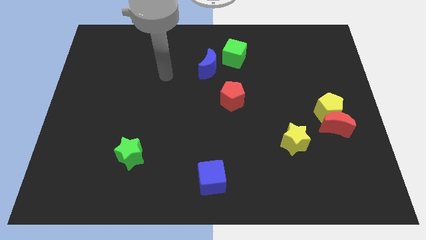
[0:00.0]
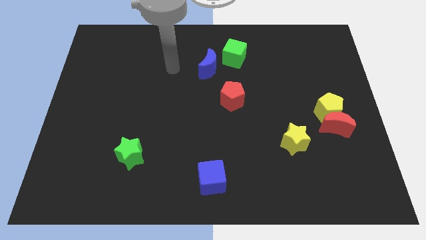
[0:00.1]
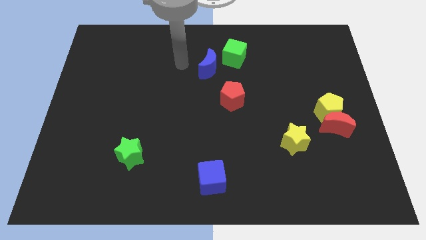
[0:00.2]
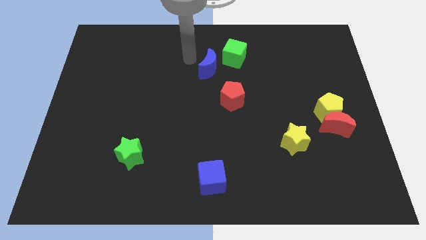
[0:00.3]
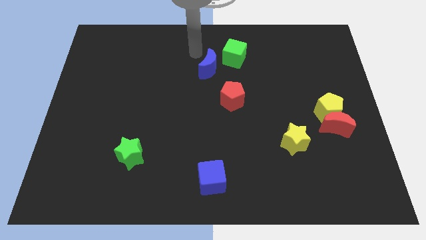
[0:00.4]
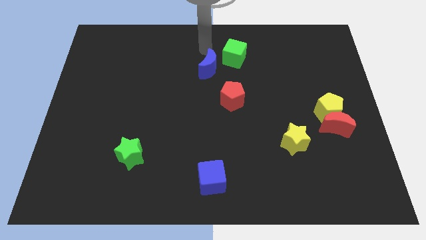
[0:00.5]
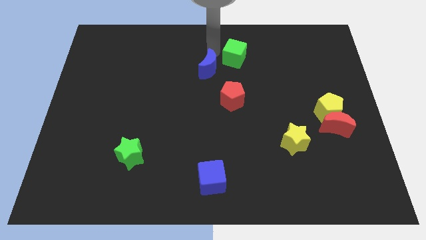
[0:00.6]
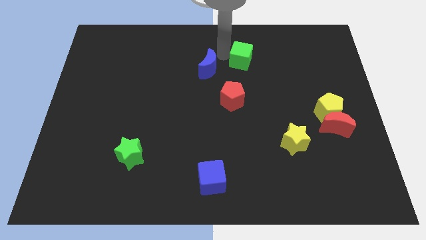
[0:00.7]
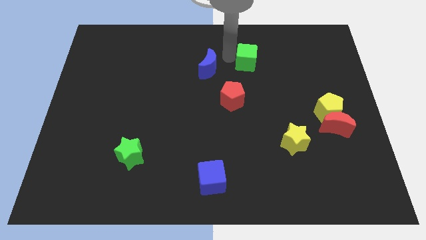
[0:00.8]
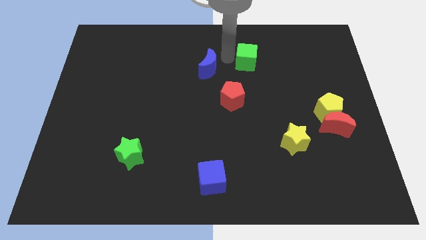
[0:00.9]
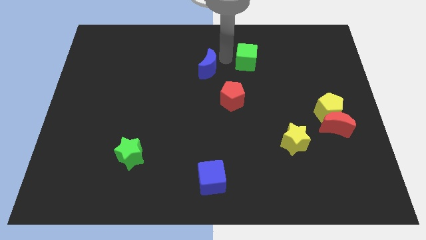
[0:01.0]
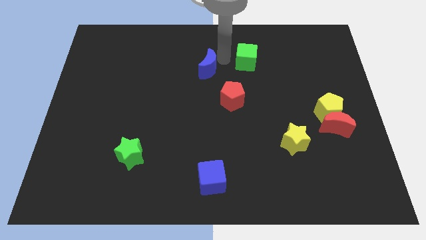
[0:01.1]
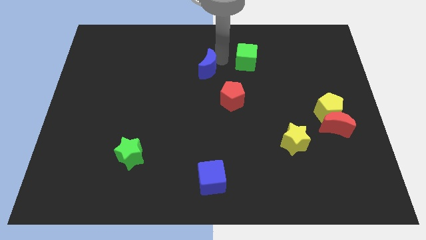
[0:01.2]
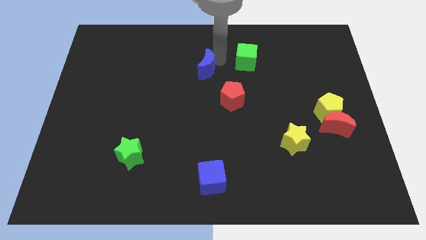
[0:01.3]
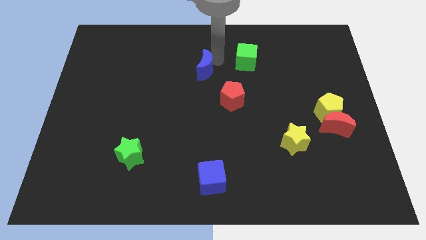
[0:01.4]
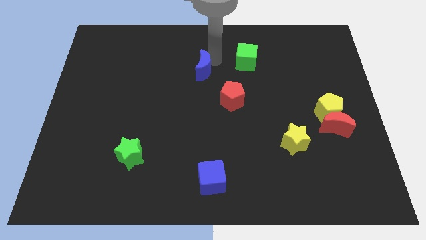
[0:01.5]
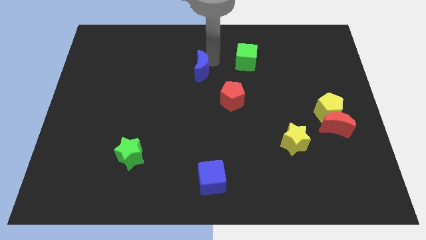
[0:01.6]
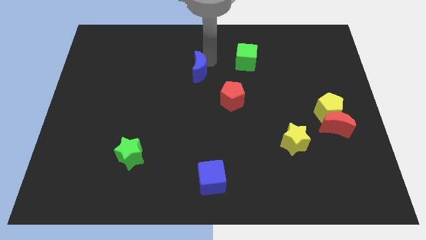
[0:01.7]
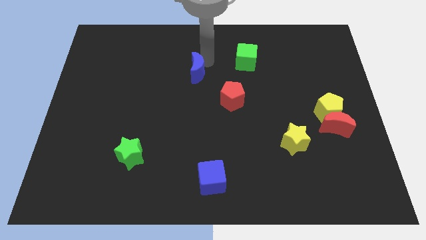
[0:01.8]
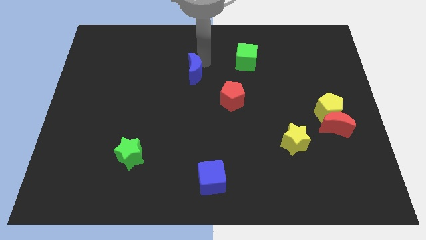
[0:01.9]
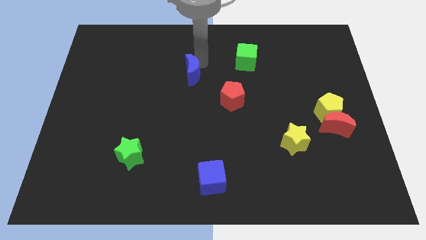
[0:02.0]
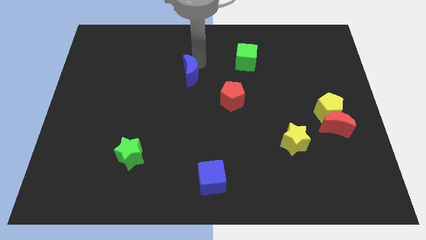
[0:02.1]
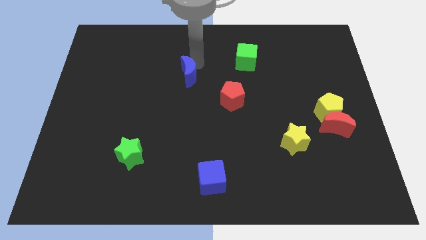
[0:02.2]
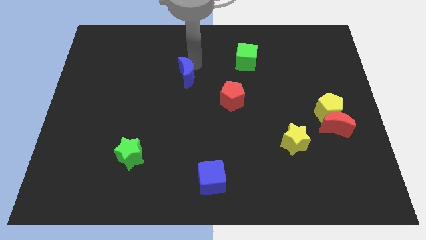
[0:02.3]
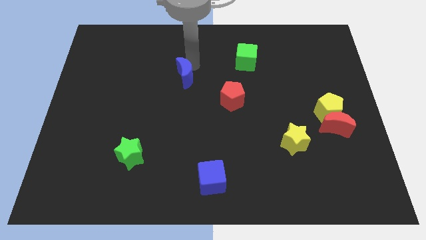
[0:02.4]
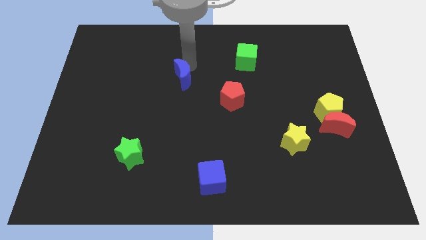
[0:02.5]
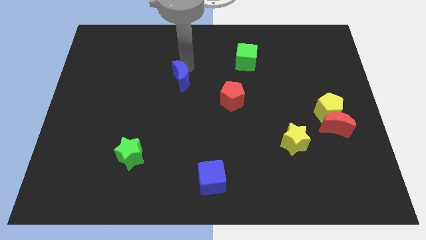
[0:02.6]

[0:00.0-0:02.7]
slightly slide the blue moon downwards and then left

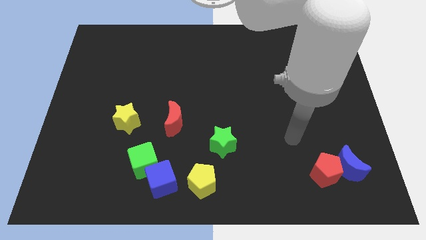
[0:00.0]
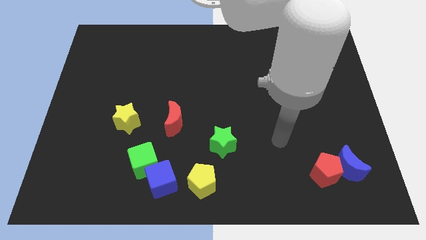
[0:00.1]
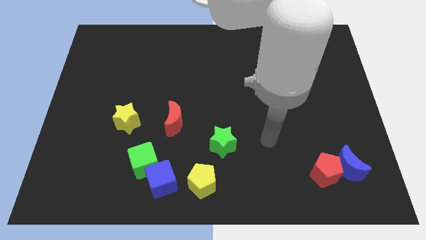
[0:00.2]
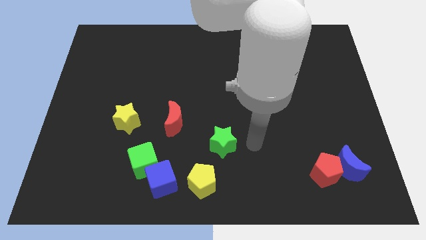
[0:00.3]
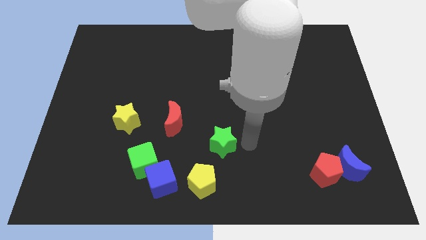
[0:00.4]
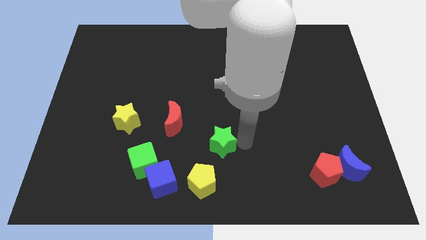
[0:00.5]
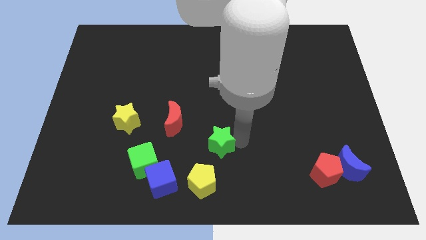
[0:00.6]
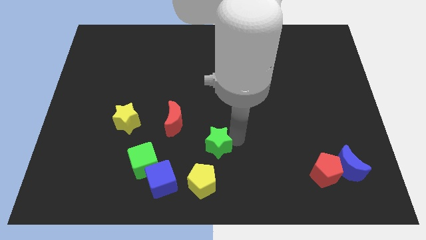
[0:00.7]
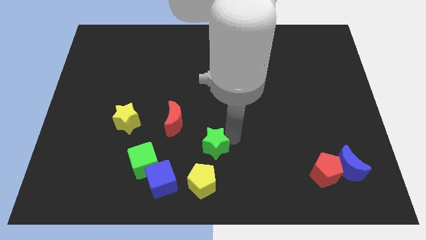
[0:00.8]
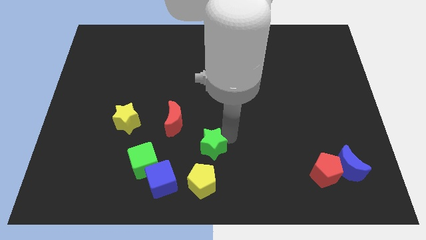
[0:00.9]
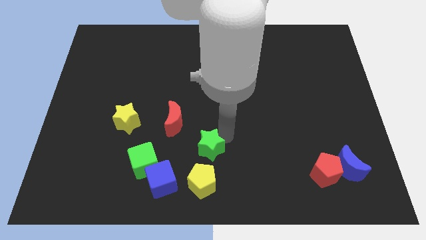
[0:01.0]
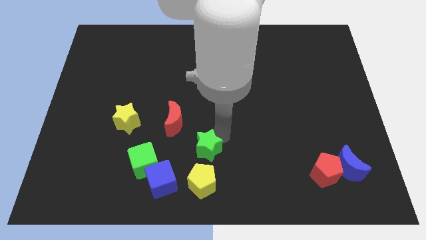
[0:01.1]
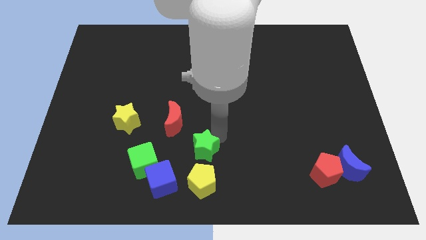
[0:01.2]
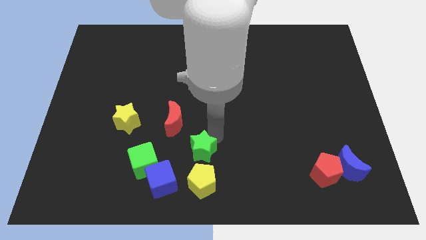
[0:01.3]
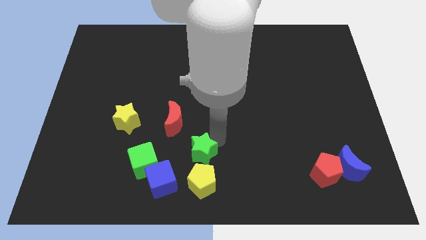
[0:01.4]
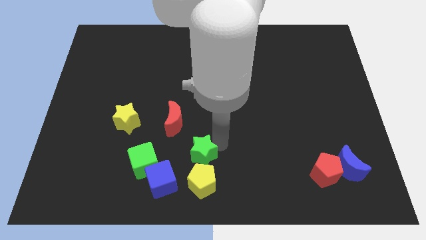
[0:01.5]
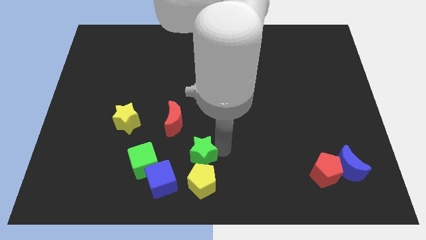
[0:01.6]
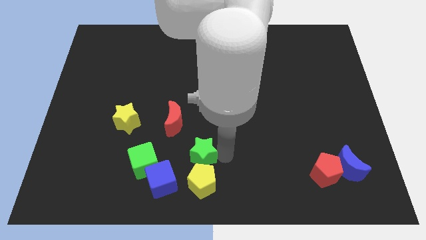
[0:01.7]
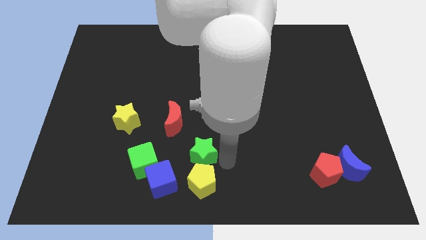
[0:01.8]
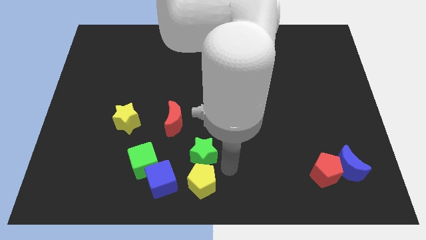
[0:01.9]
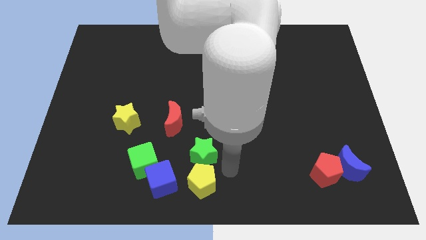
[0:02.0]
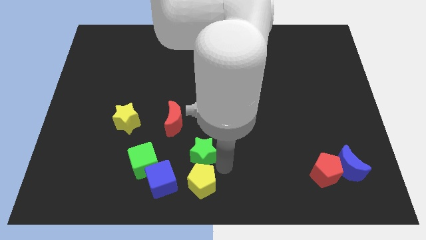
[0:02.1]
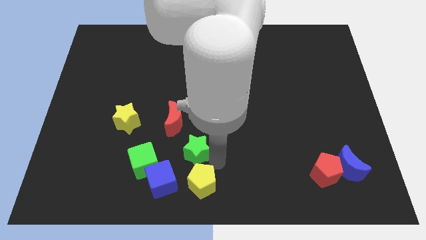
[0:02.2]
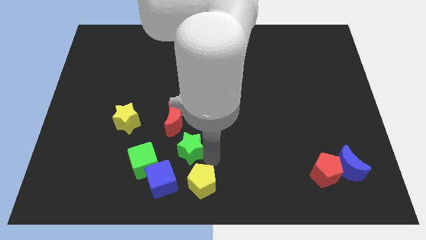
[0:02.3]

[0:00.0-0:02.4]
push the green star a little bit left

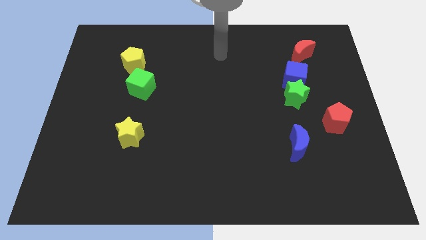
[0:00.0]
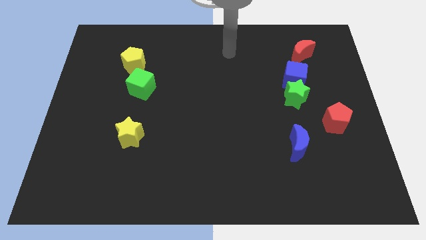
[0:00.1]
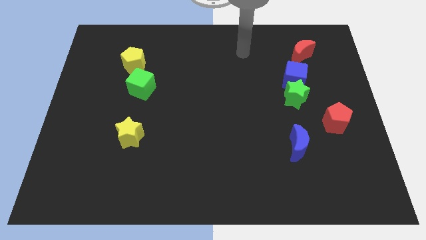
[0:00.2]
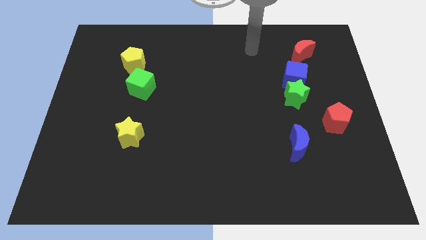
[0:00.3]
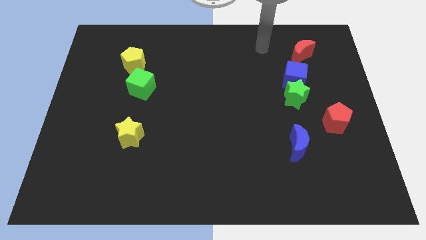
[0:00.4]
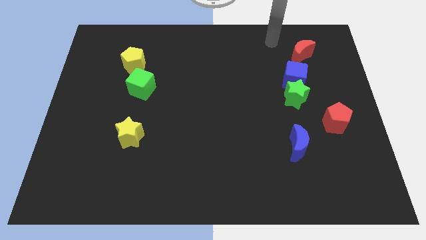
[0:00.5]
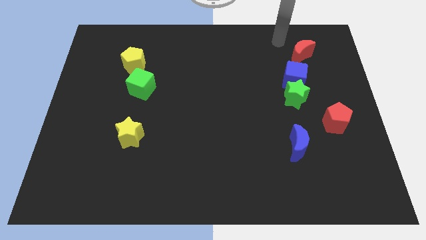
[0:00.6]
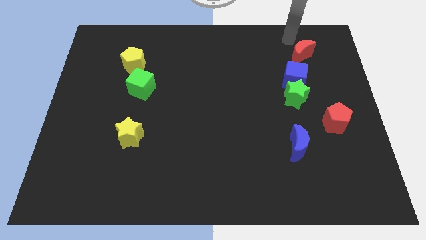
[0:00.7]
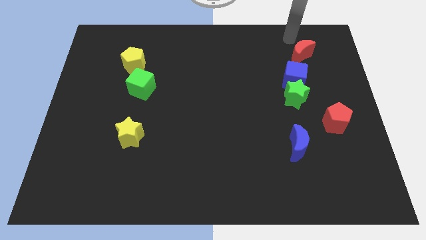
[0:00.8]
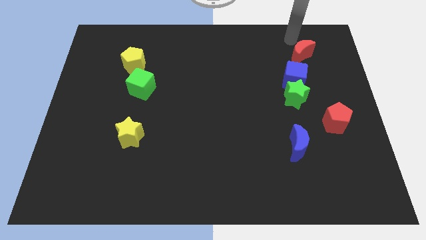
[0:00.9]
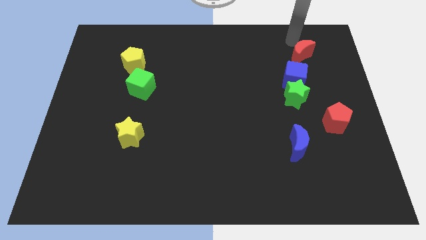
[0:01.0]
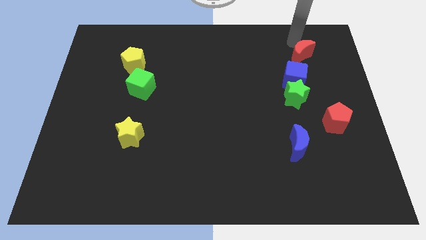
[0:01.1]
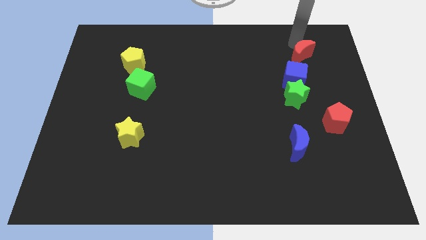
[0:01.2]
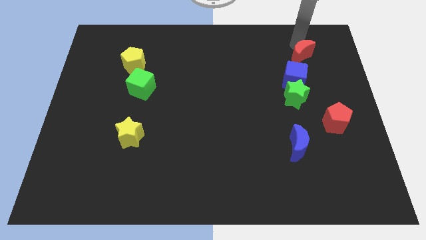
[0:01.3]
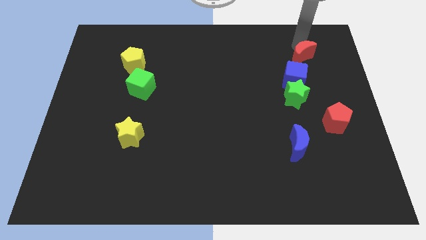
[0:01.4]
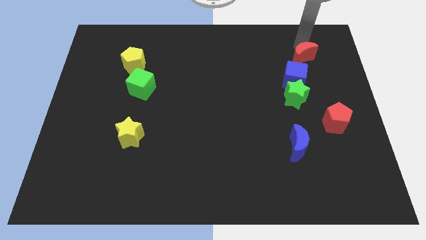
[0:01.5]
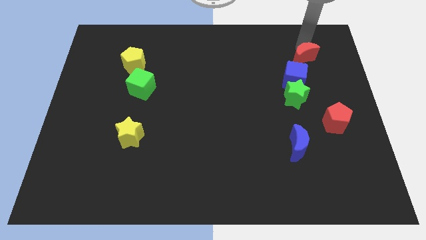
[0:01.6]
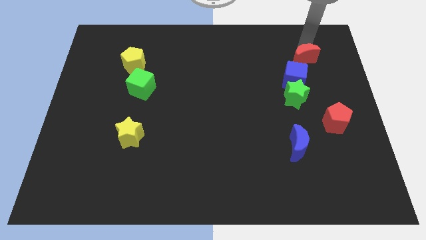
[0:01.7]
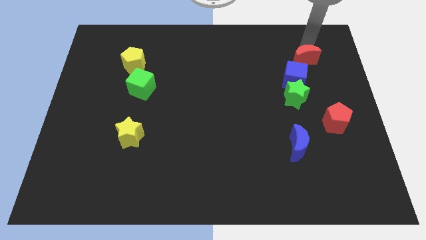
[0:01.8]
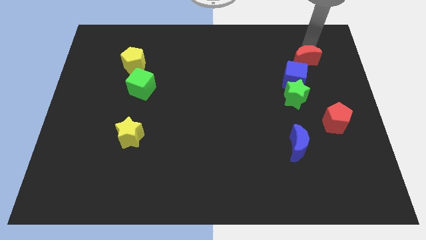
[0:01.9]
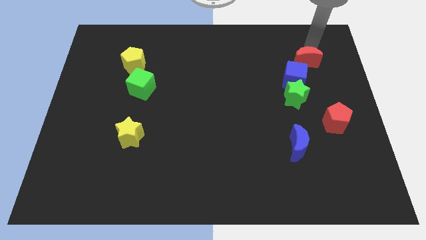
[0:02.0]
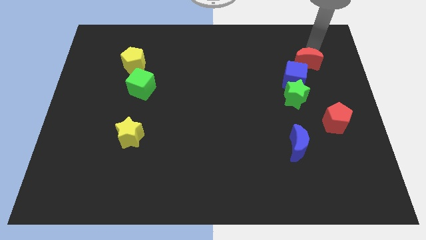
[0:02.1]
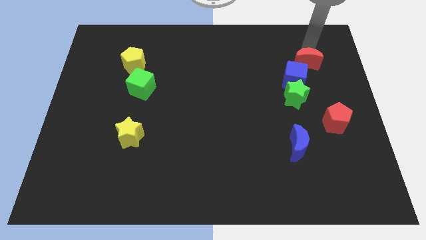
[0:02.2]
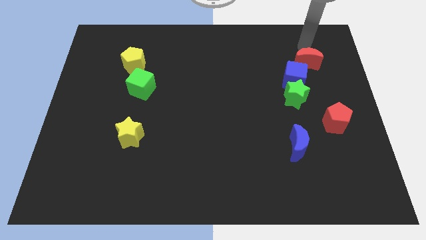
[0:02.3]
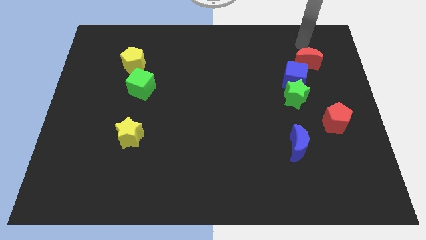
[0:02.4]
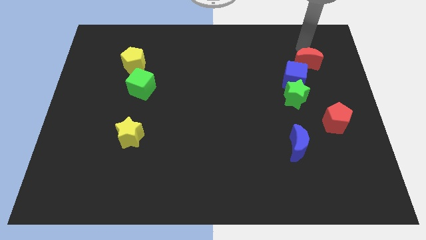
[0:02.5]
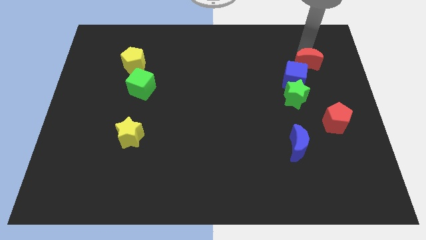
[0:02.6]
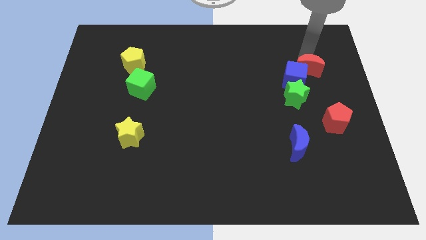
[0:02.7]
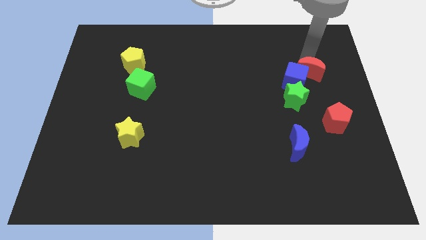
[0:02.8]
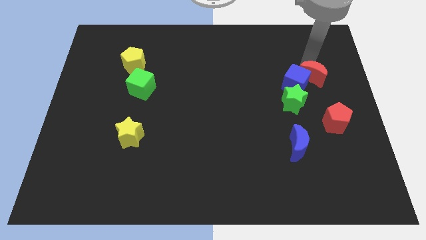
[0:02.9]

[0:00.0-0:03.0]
move the red moon a little bit downwards

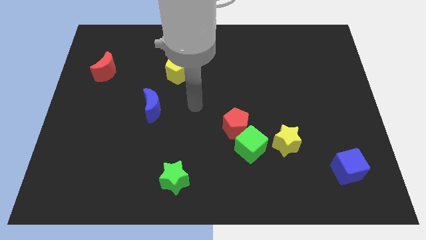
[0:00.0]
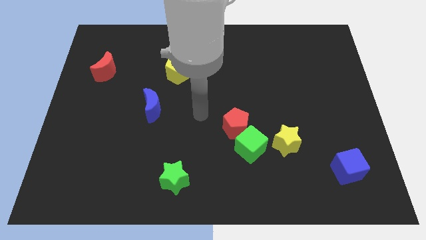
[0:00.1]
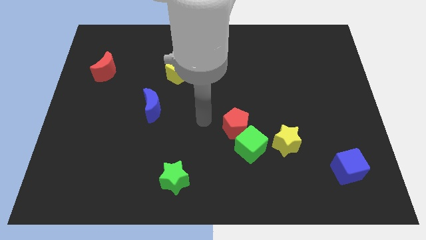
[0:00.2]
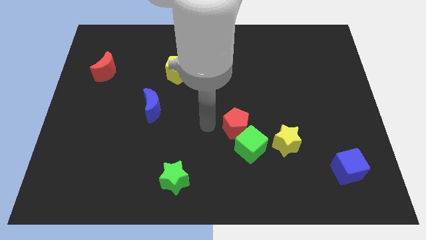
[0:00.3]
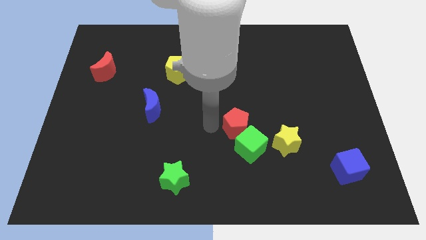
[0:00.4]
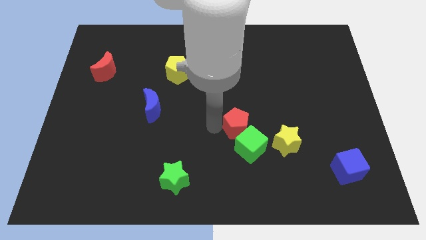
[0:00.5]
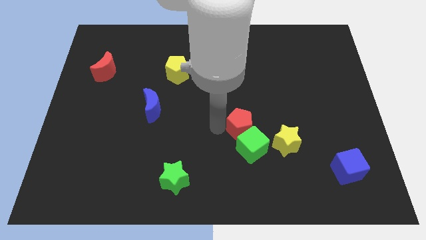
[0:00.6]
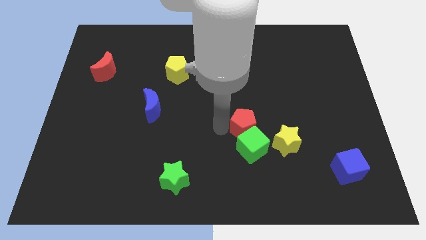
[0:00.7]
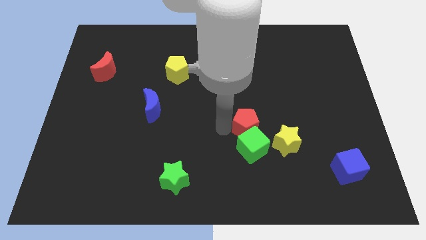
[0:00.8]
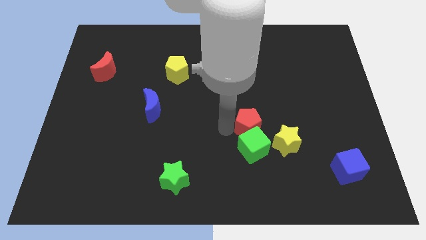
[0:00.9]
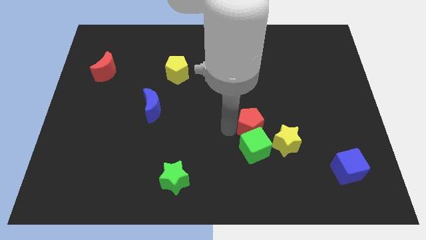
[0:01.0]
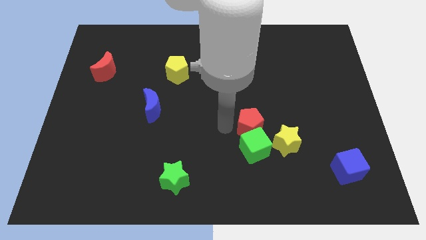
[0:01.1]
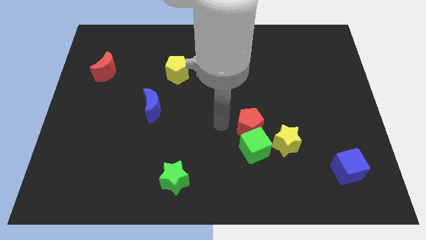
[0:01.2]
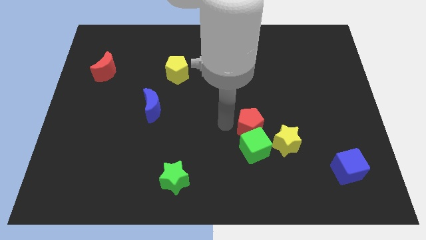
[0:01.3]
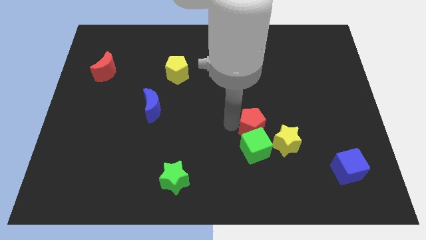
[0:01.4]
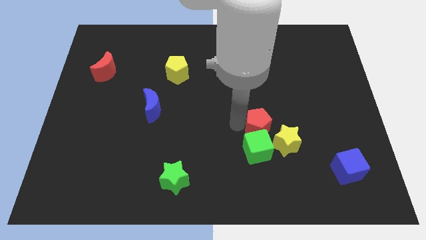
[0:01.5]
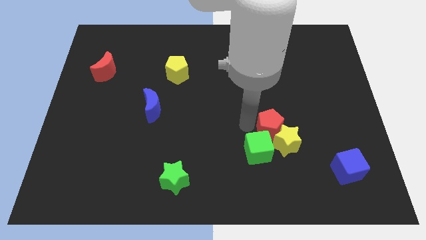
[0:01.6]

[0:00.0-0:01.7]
slightly slide the red pentagon right
